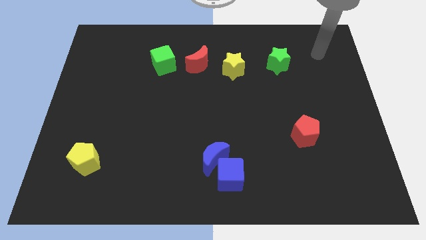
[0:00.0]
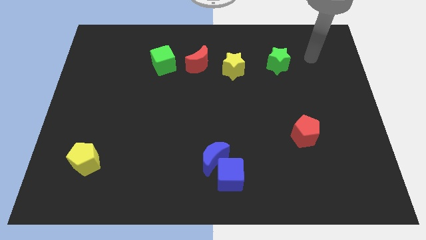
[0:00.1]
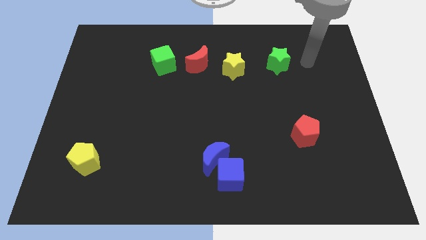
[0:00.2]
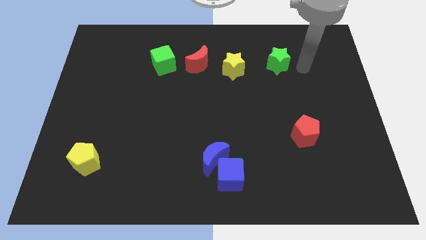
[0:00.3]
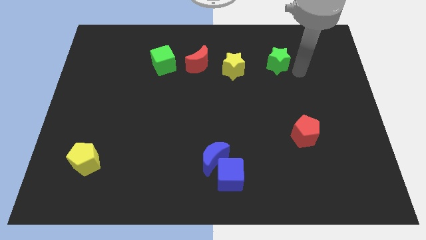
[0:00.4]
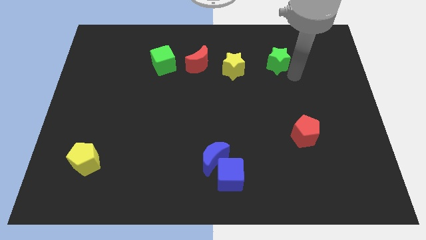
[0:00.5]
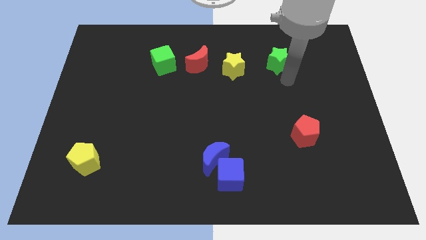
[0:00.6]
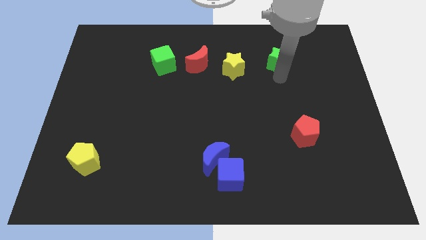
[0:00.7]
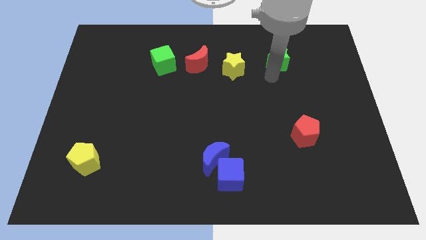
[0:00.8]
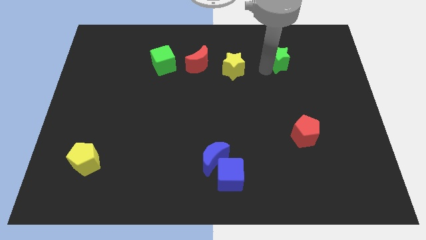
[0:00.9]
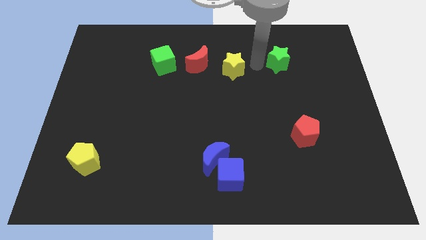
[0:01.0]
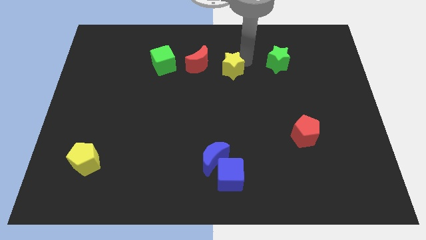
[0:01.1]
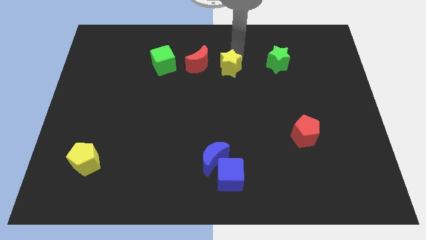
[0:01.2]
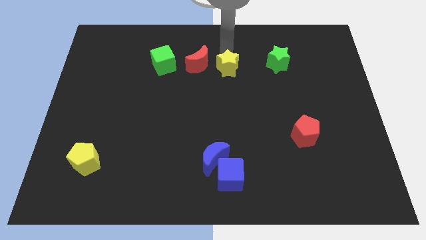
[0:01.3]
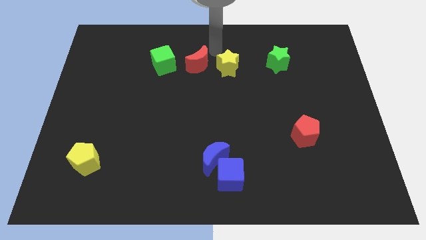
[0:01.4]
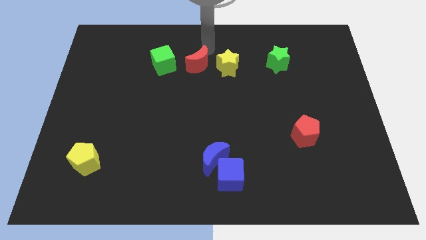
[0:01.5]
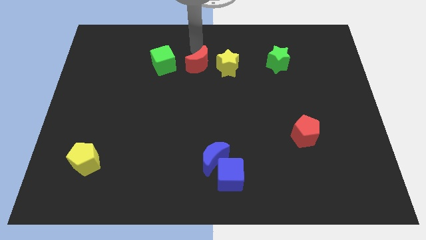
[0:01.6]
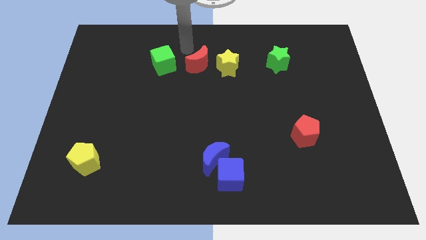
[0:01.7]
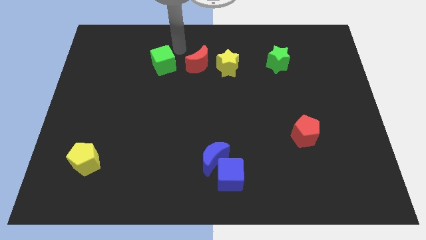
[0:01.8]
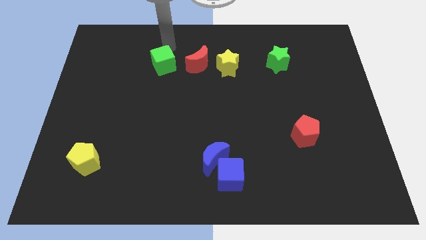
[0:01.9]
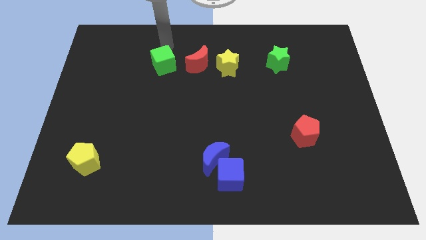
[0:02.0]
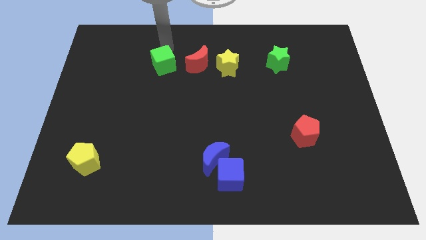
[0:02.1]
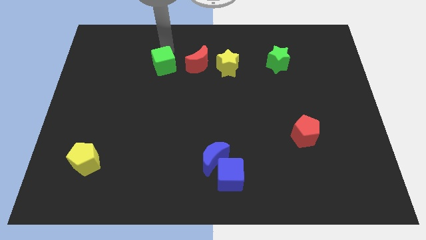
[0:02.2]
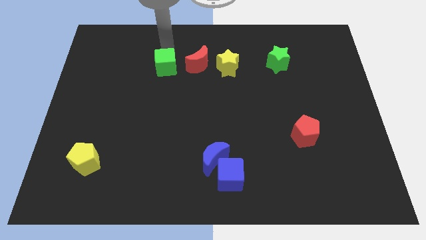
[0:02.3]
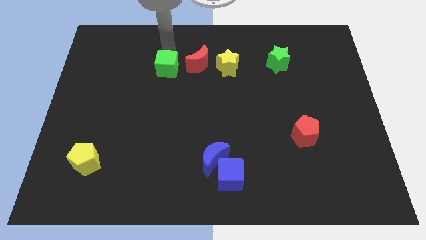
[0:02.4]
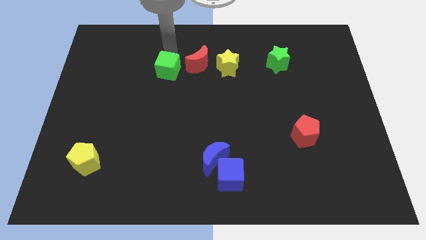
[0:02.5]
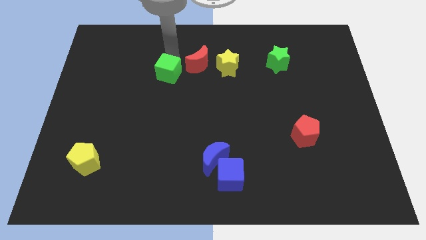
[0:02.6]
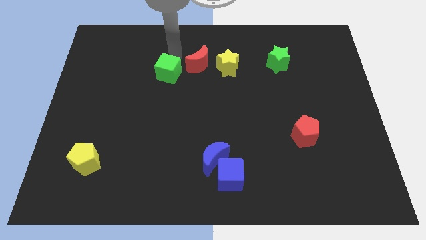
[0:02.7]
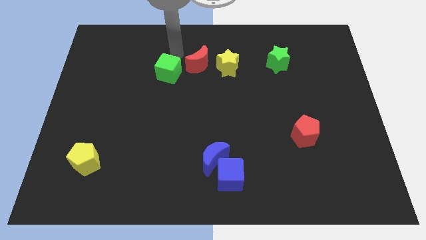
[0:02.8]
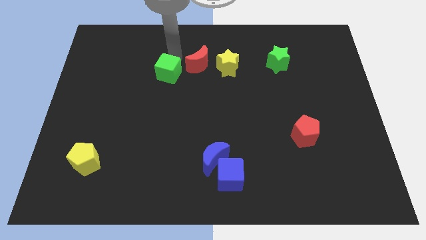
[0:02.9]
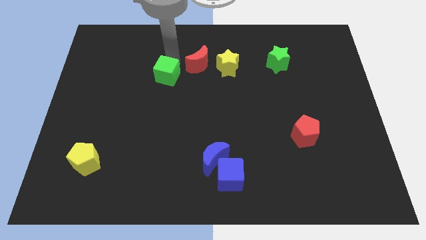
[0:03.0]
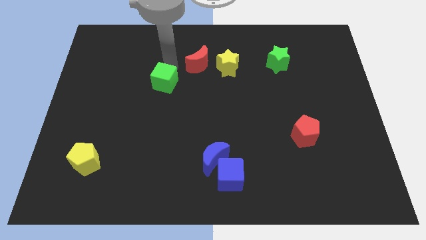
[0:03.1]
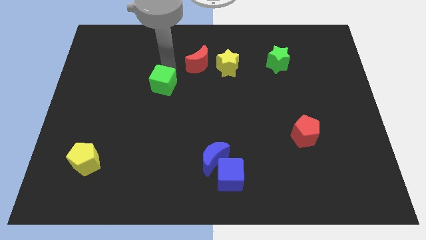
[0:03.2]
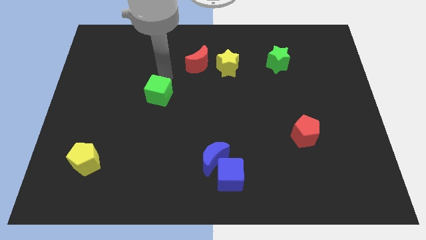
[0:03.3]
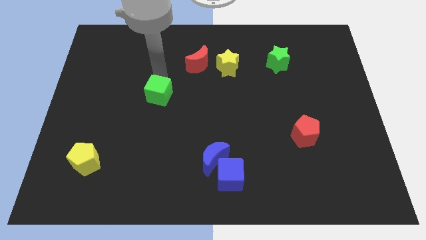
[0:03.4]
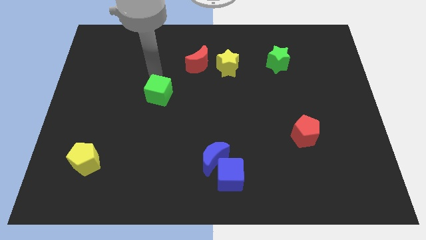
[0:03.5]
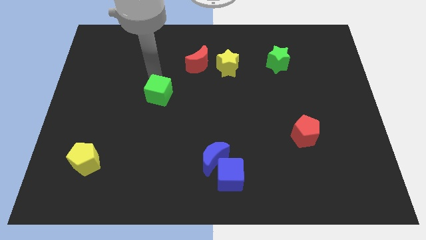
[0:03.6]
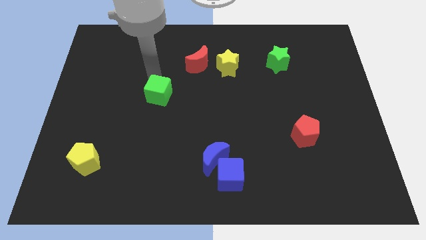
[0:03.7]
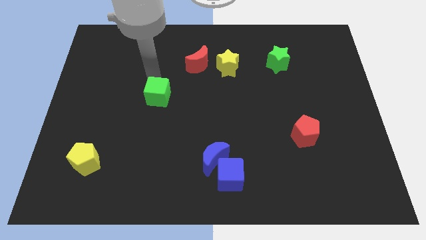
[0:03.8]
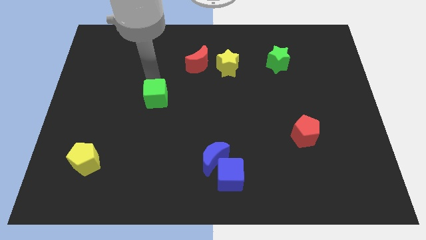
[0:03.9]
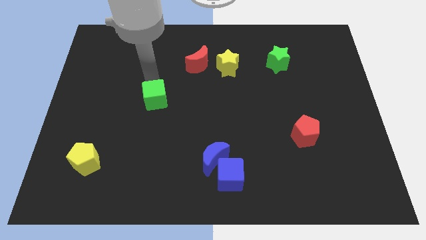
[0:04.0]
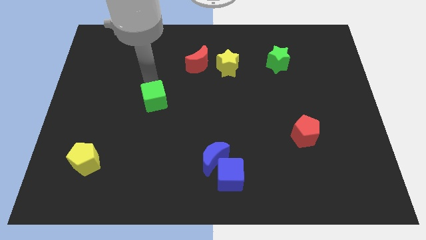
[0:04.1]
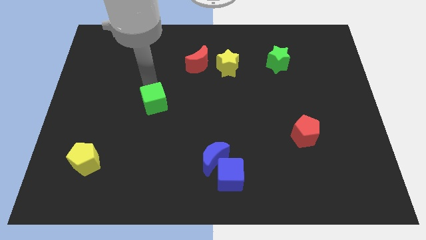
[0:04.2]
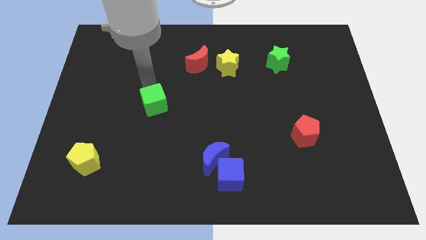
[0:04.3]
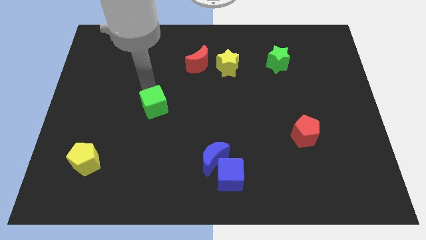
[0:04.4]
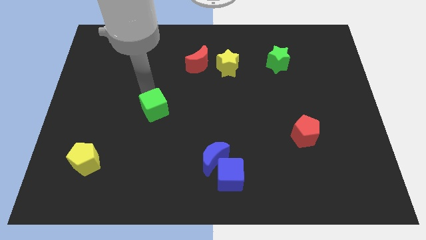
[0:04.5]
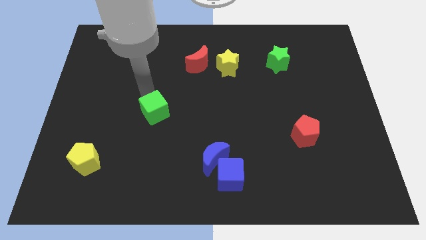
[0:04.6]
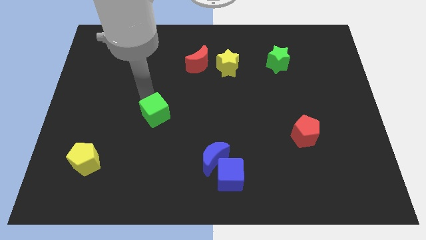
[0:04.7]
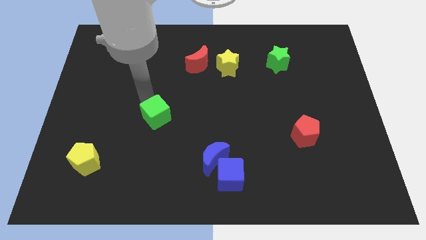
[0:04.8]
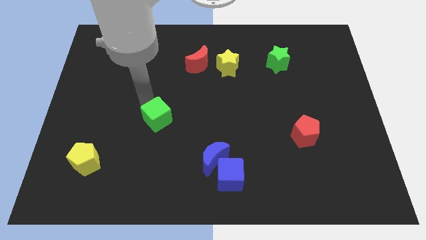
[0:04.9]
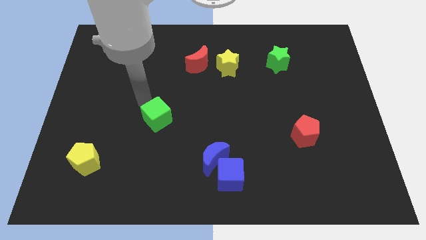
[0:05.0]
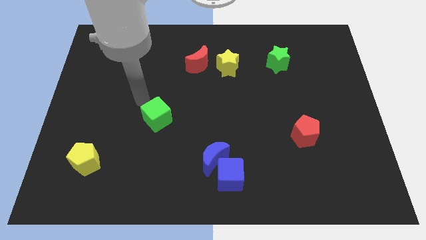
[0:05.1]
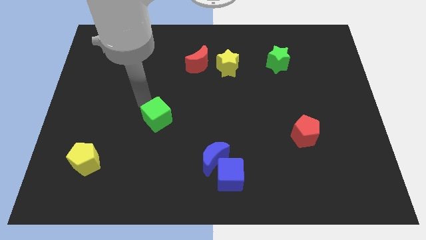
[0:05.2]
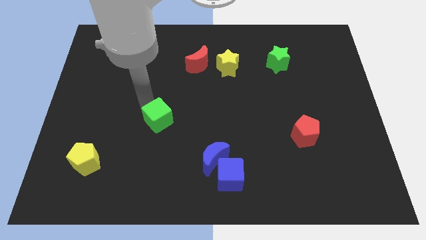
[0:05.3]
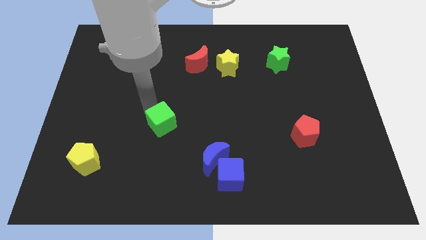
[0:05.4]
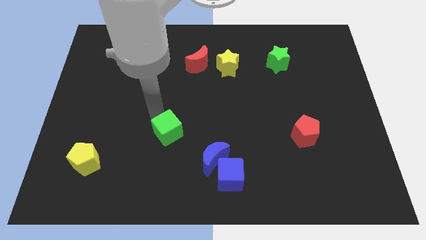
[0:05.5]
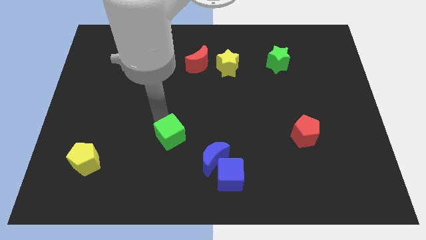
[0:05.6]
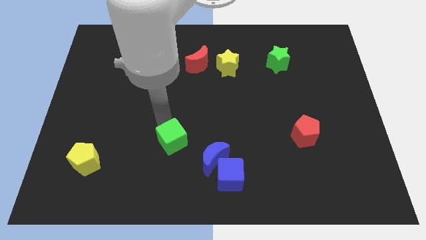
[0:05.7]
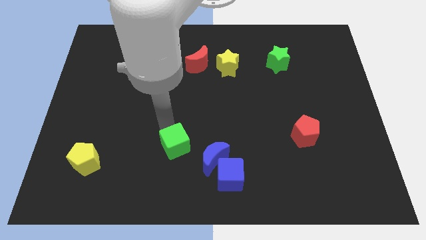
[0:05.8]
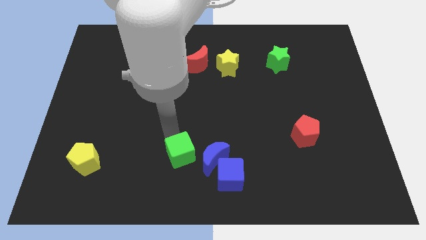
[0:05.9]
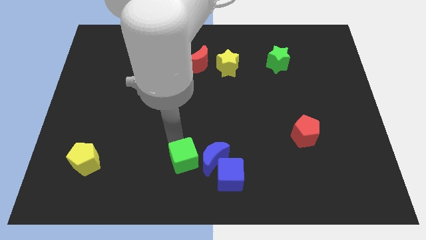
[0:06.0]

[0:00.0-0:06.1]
move the green cube to the bottom side

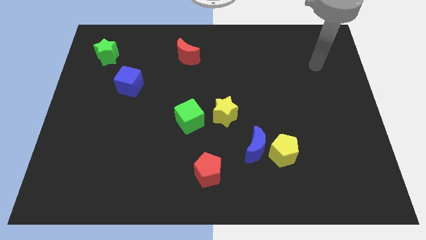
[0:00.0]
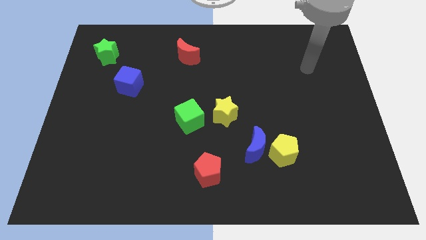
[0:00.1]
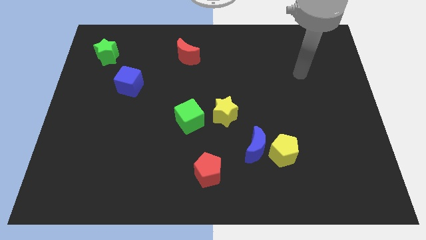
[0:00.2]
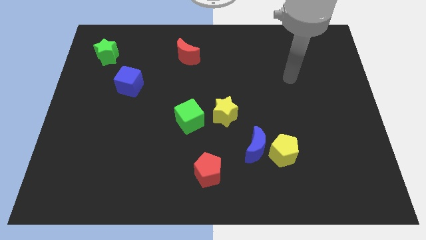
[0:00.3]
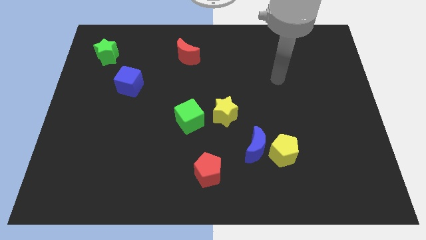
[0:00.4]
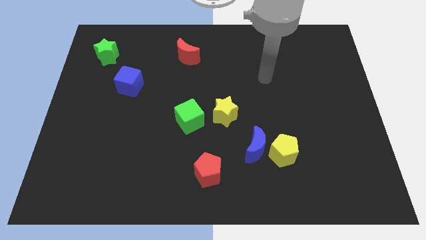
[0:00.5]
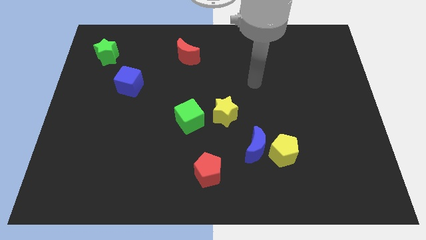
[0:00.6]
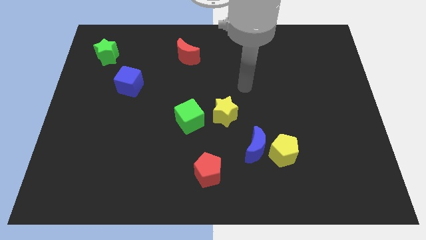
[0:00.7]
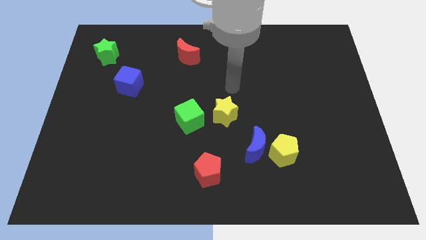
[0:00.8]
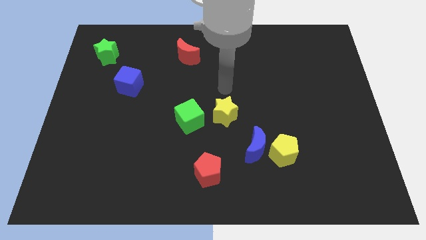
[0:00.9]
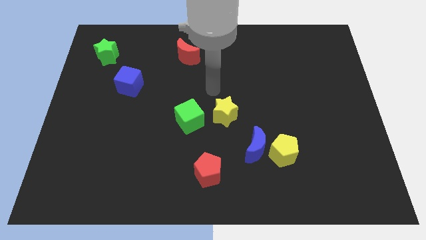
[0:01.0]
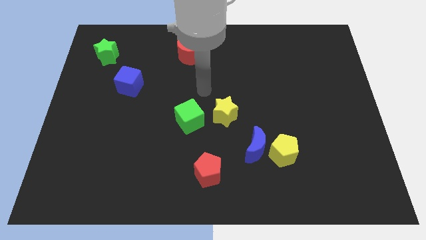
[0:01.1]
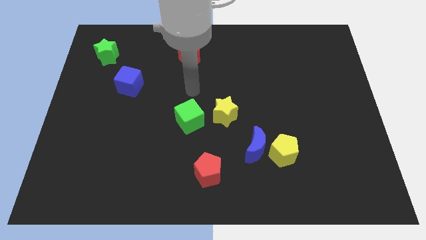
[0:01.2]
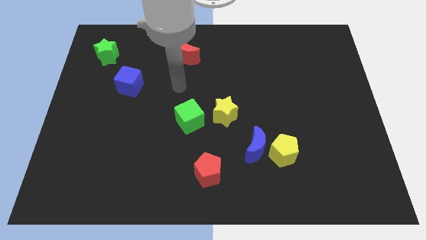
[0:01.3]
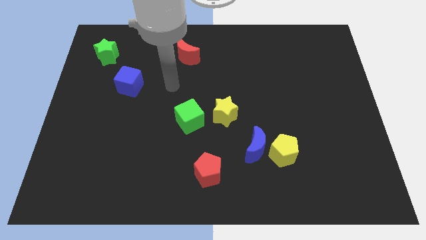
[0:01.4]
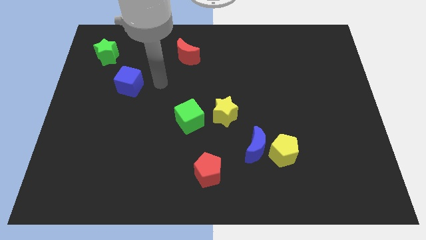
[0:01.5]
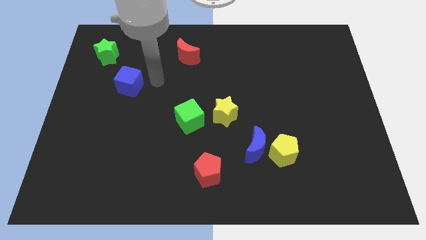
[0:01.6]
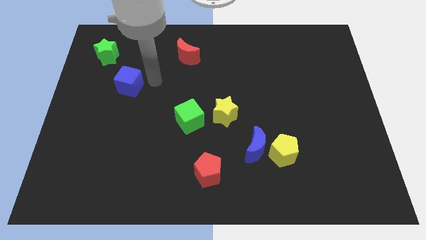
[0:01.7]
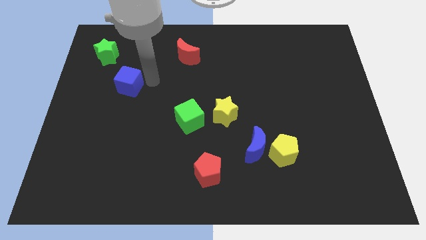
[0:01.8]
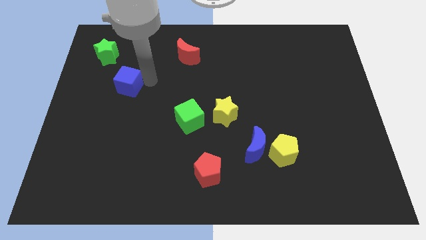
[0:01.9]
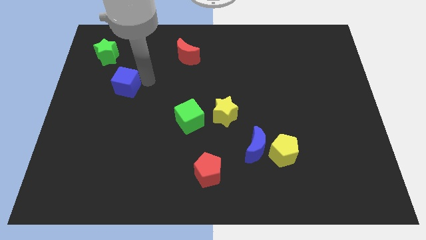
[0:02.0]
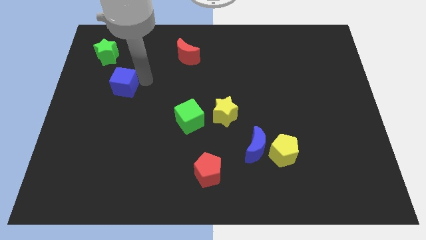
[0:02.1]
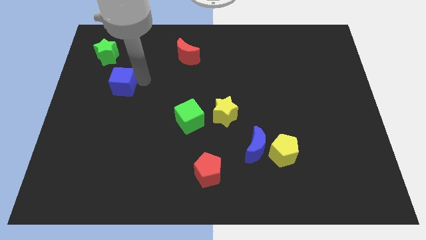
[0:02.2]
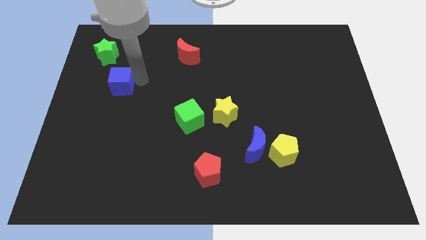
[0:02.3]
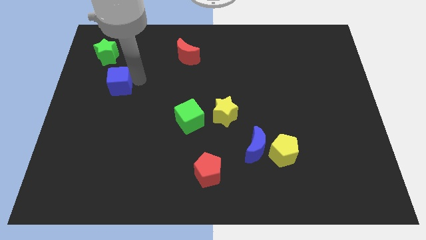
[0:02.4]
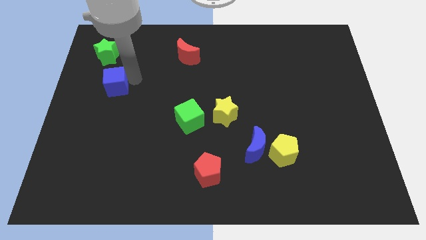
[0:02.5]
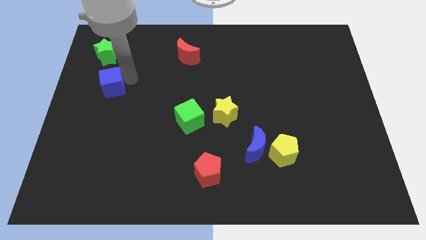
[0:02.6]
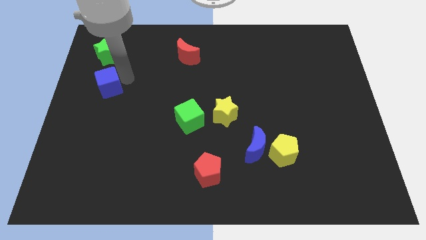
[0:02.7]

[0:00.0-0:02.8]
push the blue cube to the left side of the board
